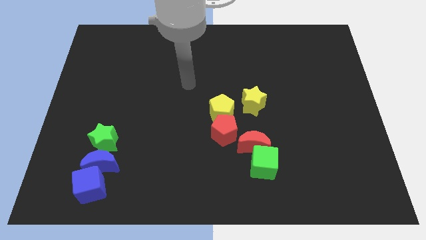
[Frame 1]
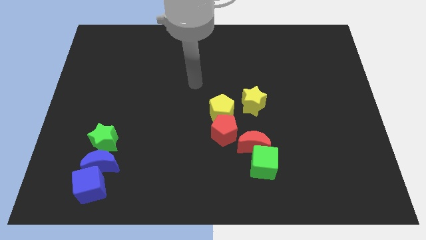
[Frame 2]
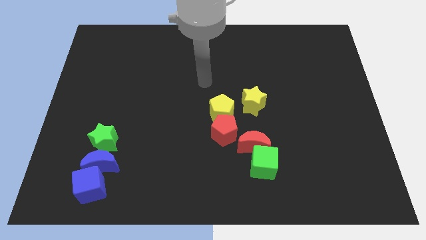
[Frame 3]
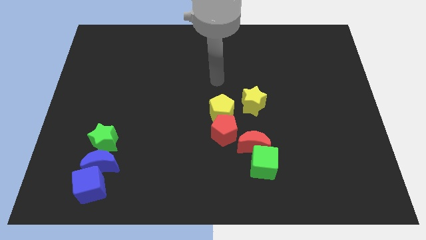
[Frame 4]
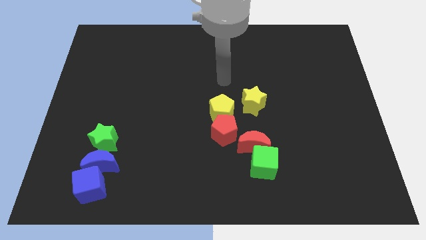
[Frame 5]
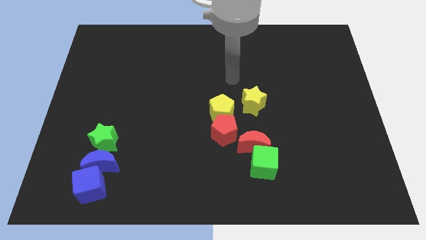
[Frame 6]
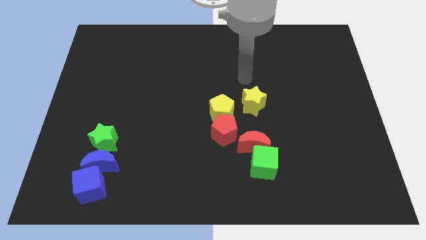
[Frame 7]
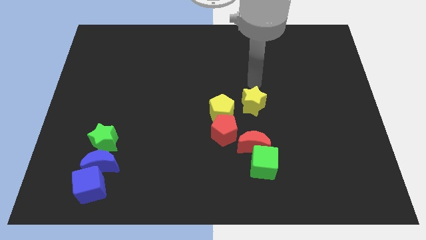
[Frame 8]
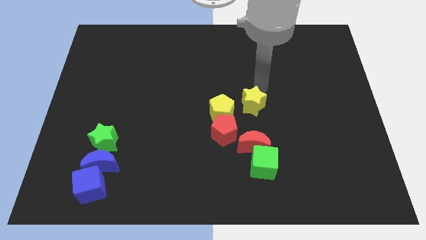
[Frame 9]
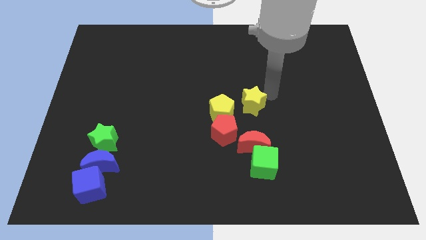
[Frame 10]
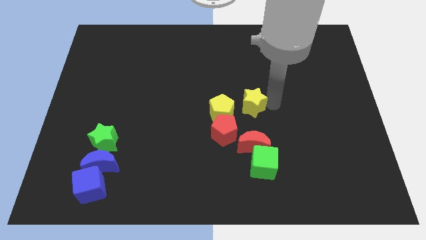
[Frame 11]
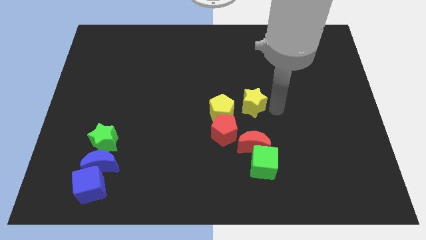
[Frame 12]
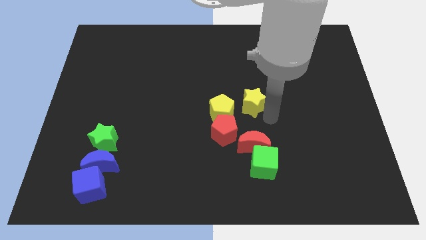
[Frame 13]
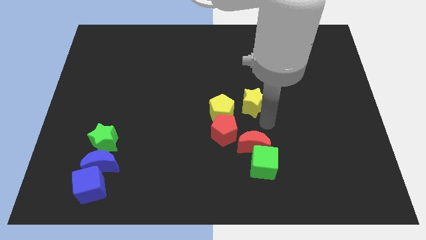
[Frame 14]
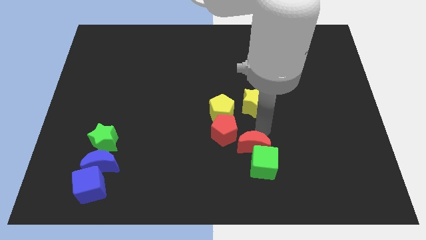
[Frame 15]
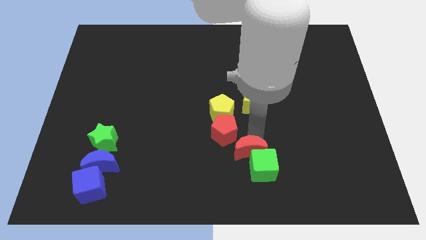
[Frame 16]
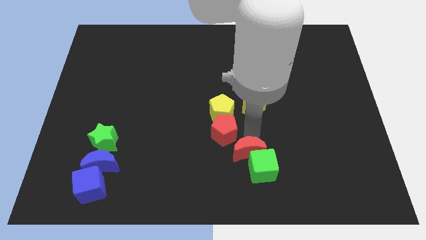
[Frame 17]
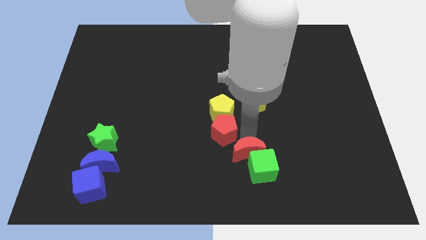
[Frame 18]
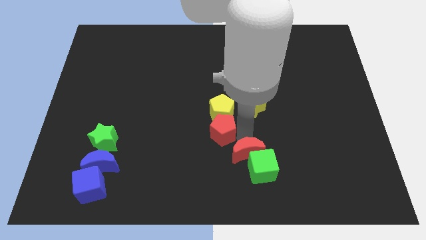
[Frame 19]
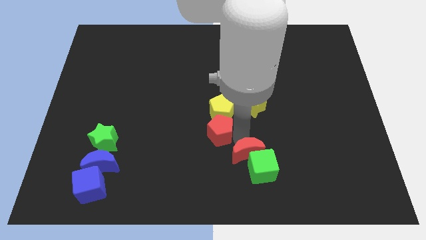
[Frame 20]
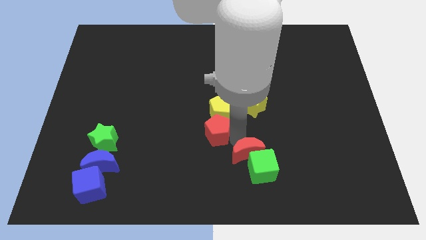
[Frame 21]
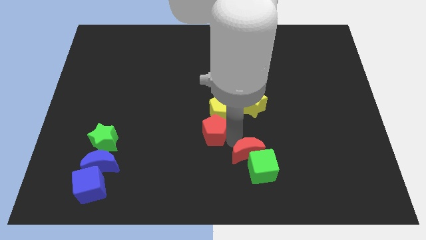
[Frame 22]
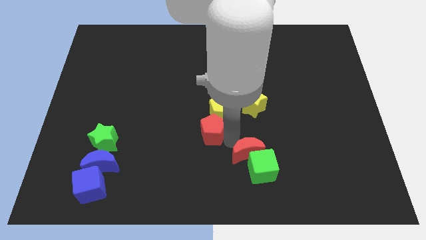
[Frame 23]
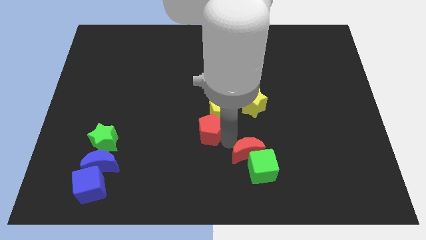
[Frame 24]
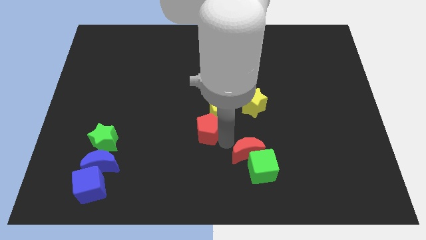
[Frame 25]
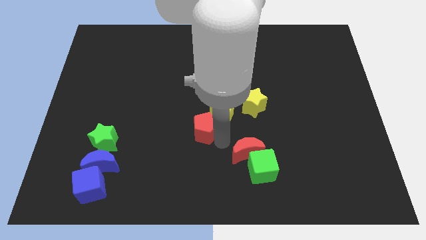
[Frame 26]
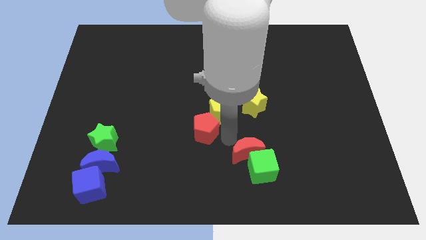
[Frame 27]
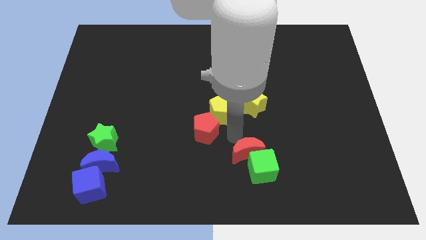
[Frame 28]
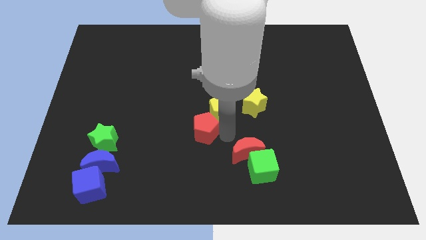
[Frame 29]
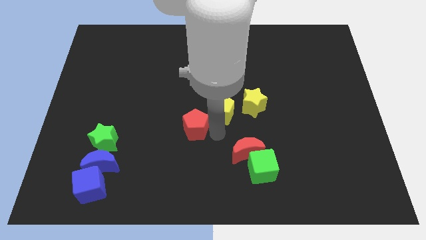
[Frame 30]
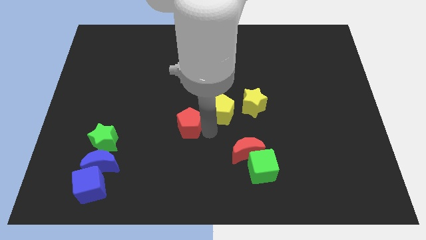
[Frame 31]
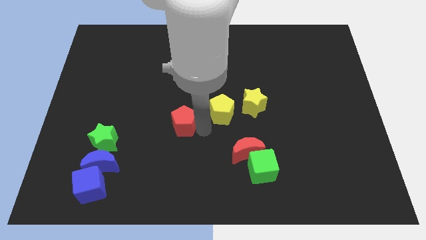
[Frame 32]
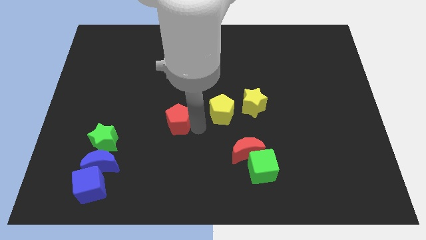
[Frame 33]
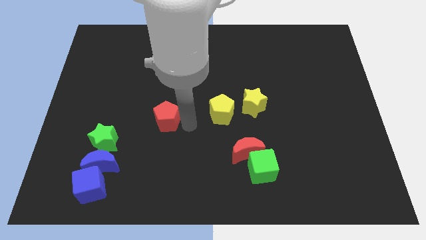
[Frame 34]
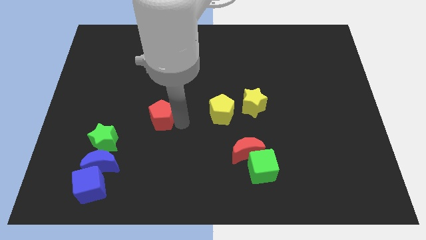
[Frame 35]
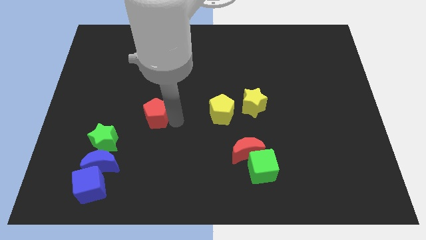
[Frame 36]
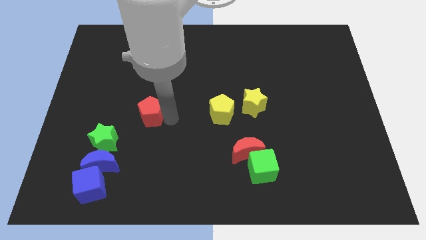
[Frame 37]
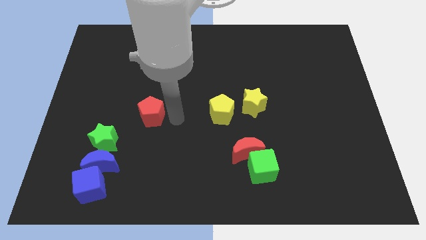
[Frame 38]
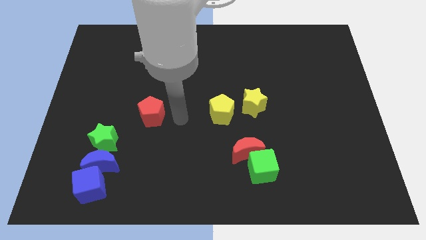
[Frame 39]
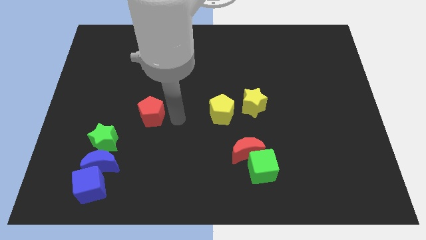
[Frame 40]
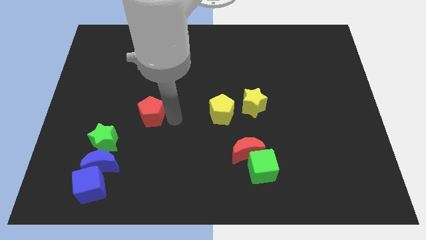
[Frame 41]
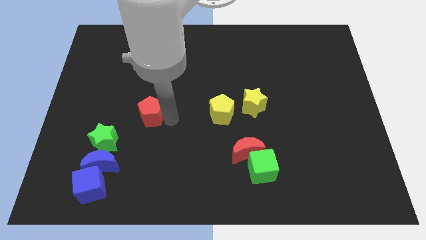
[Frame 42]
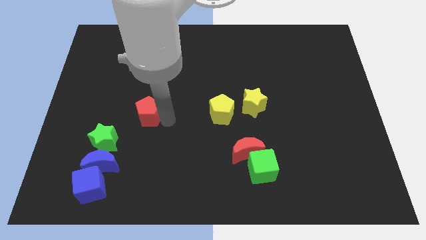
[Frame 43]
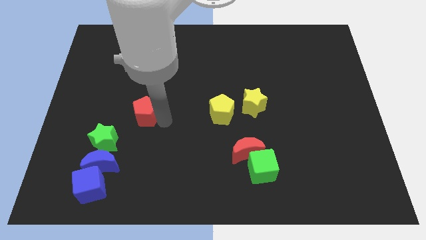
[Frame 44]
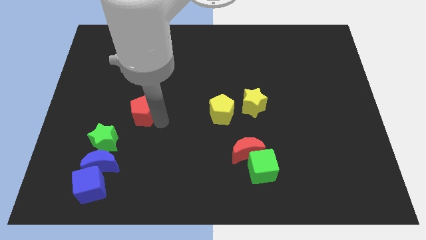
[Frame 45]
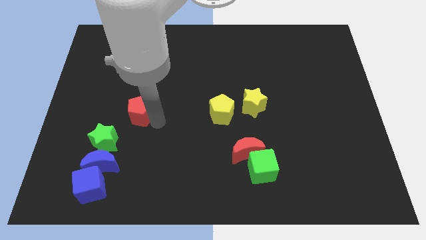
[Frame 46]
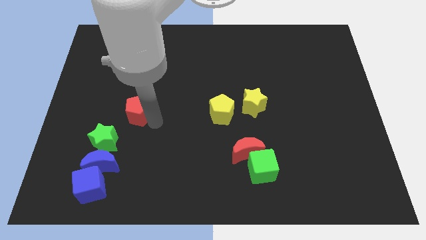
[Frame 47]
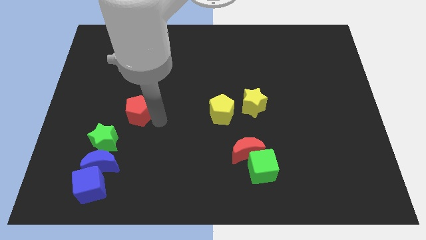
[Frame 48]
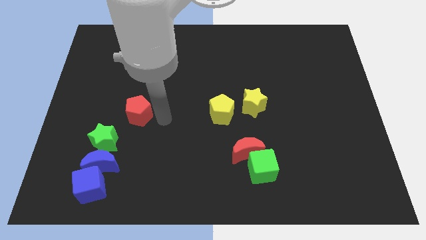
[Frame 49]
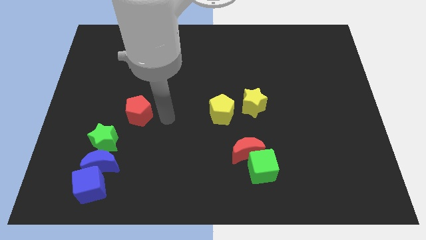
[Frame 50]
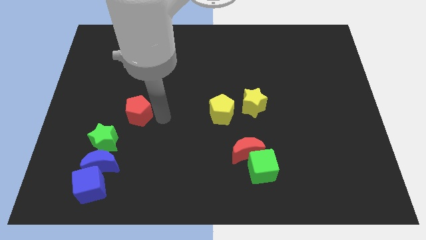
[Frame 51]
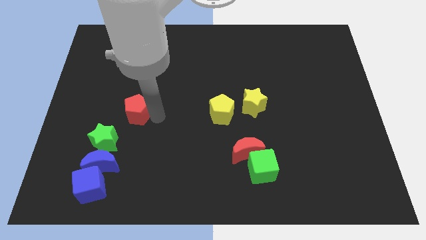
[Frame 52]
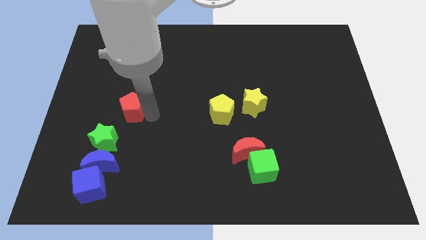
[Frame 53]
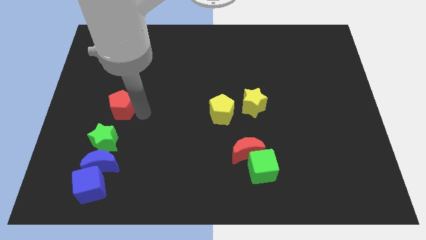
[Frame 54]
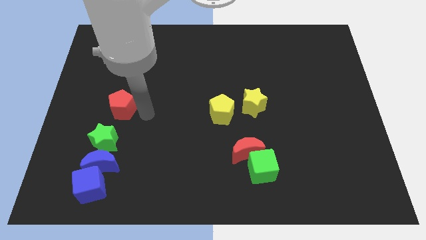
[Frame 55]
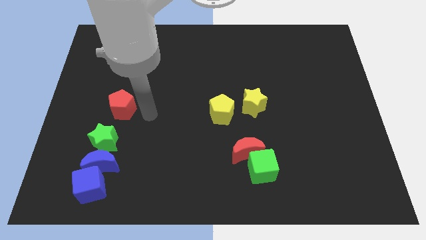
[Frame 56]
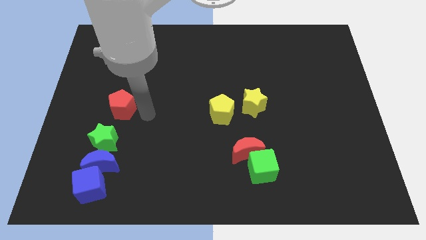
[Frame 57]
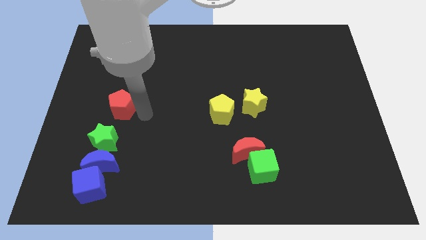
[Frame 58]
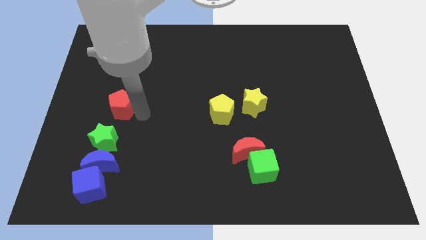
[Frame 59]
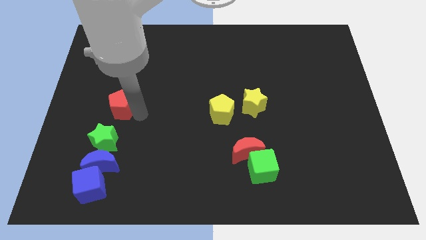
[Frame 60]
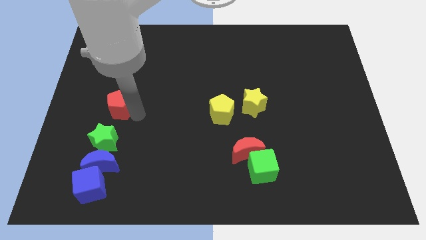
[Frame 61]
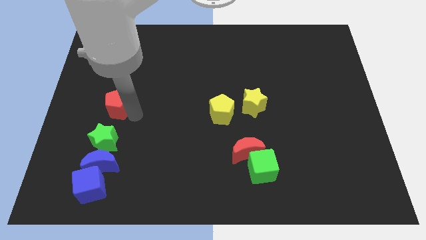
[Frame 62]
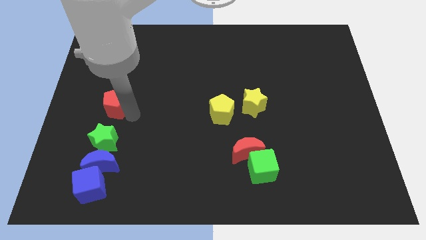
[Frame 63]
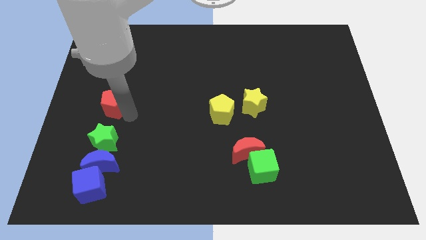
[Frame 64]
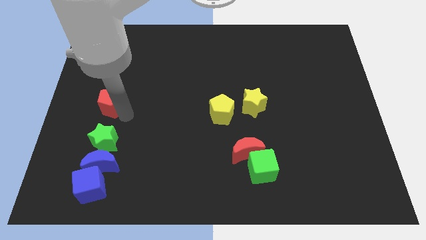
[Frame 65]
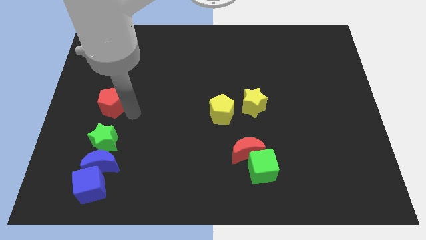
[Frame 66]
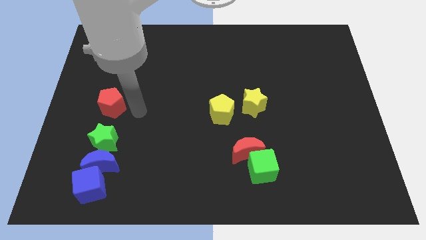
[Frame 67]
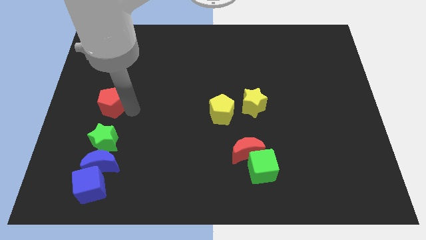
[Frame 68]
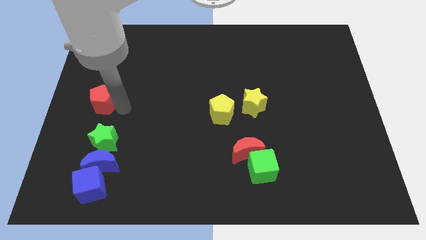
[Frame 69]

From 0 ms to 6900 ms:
slide the red pentagon to the center left

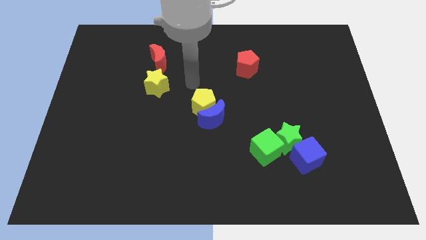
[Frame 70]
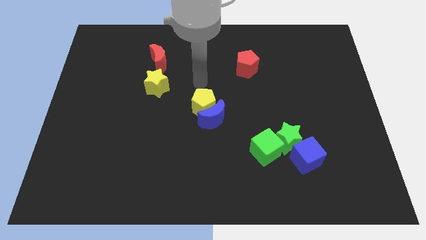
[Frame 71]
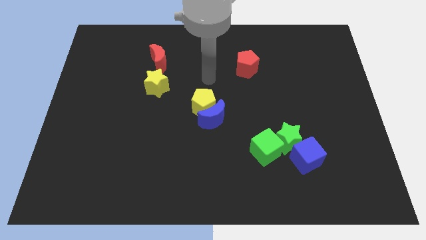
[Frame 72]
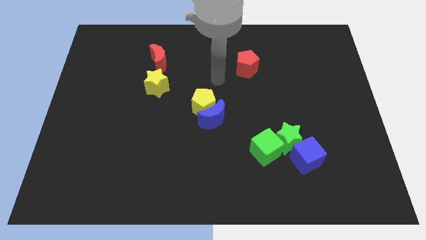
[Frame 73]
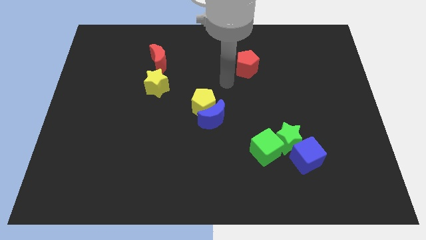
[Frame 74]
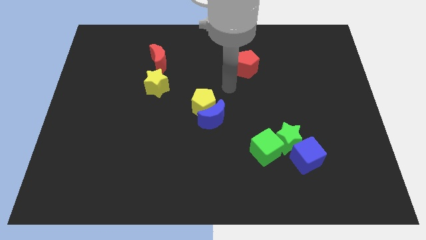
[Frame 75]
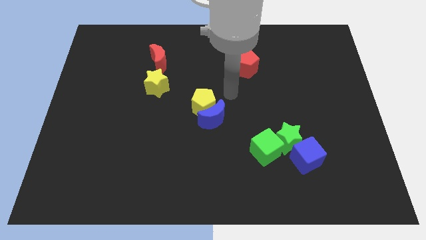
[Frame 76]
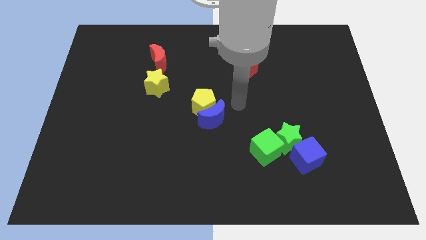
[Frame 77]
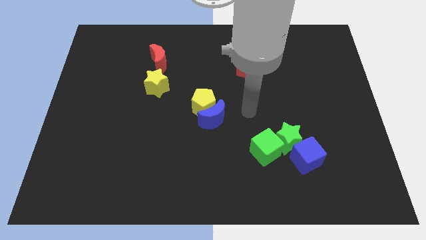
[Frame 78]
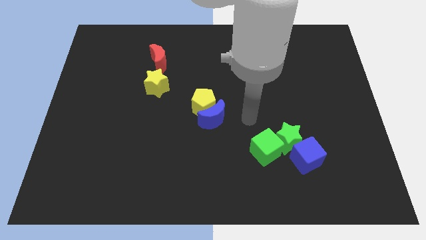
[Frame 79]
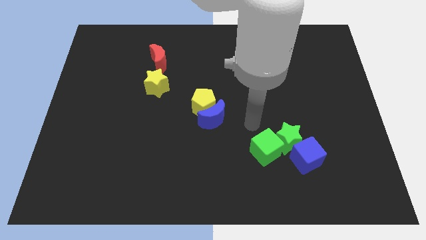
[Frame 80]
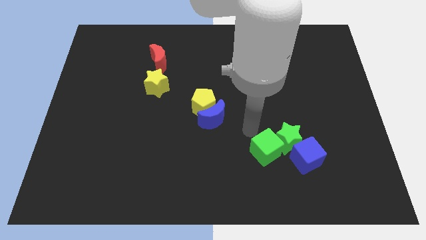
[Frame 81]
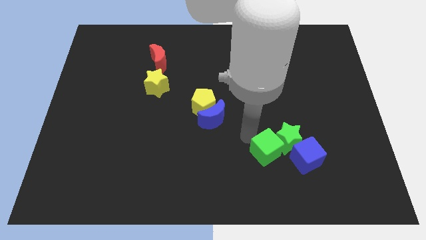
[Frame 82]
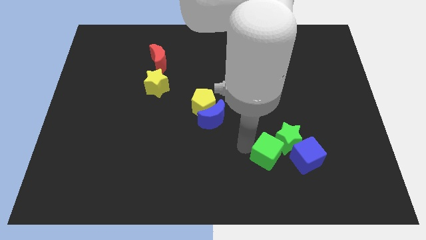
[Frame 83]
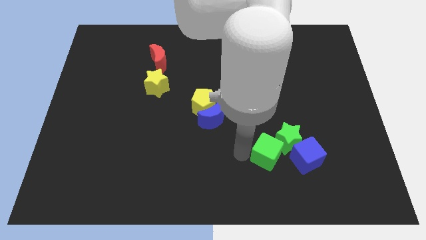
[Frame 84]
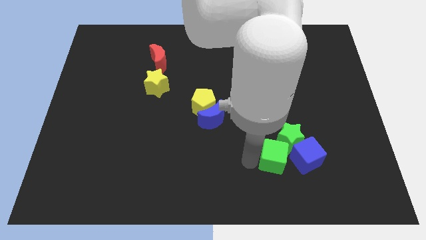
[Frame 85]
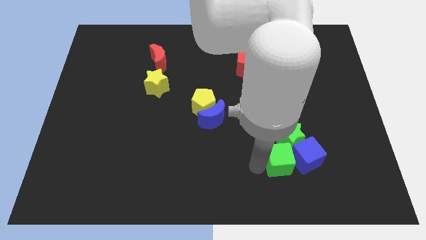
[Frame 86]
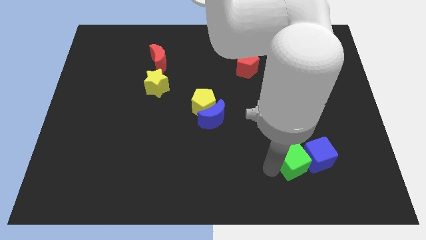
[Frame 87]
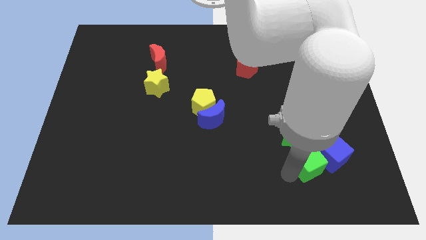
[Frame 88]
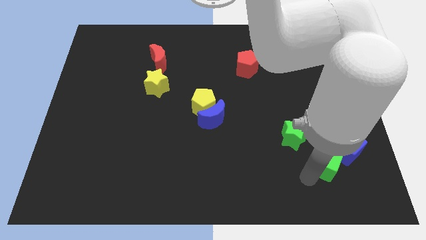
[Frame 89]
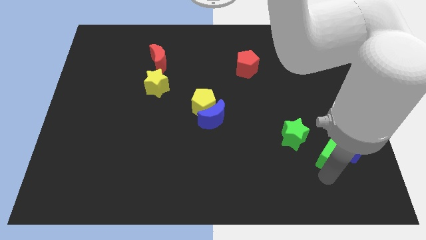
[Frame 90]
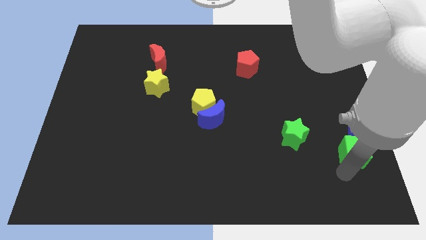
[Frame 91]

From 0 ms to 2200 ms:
put the blue cube to the center right
